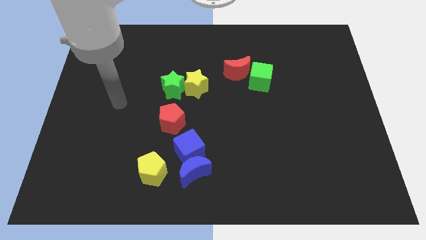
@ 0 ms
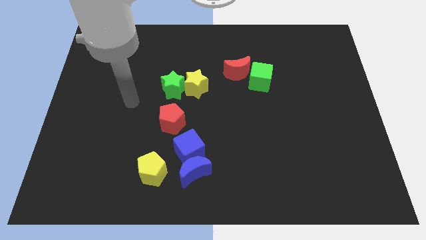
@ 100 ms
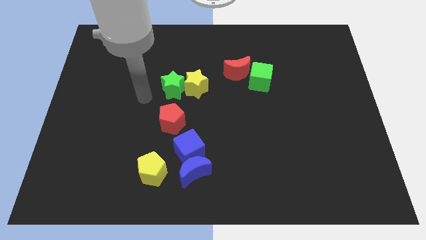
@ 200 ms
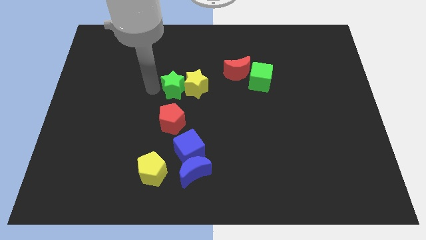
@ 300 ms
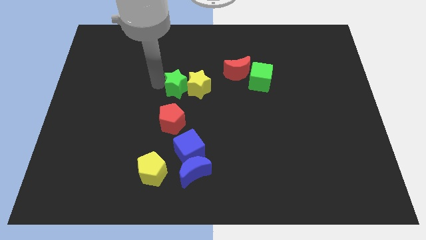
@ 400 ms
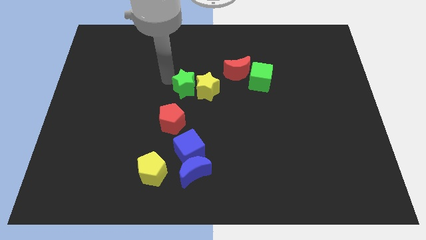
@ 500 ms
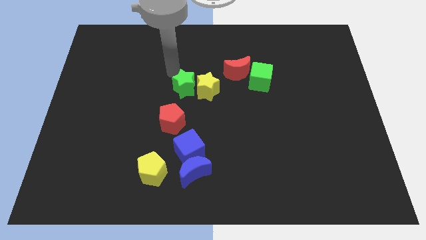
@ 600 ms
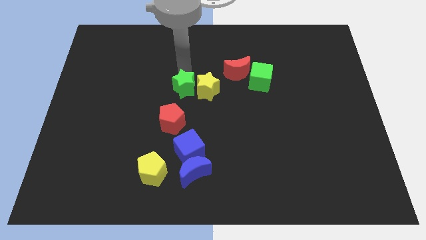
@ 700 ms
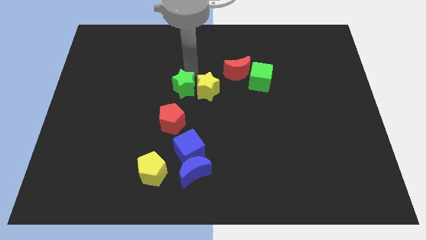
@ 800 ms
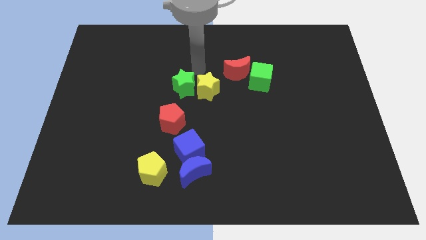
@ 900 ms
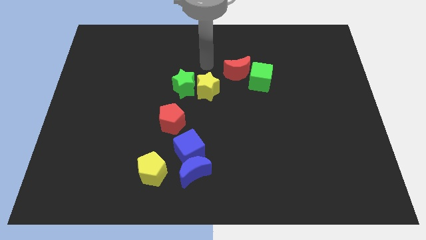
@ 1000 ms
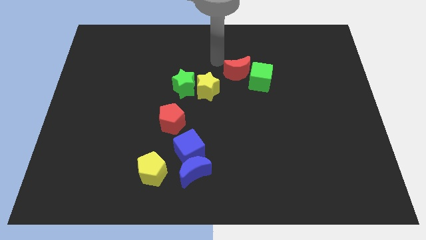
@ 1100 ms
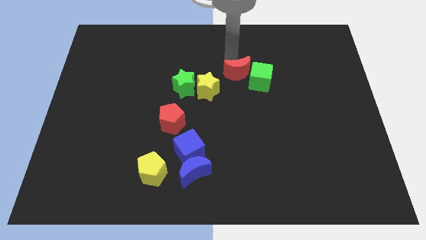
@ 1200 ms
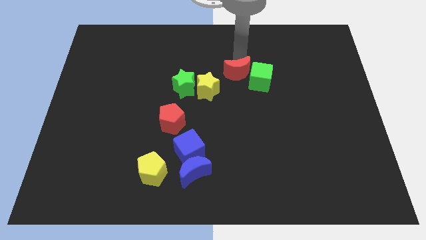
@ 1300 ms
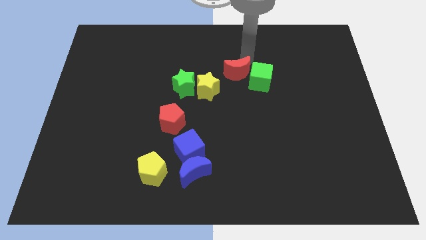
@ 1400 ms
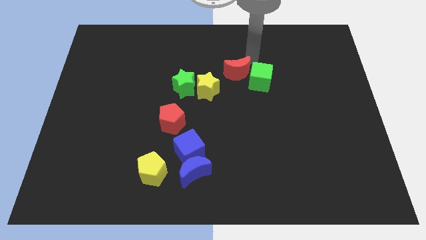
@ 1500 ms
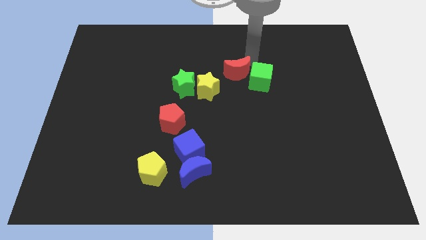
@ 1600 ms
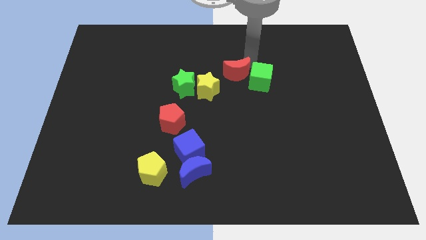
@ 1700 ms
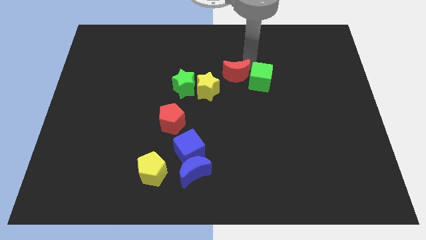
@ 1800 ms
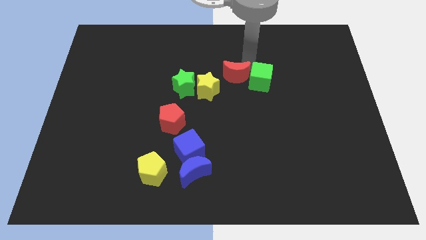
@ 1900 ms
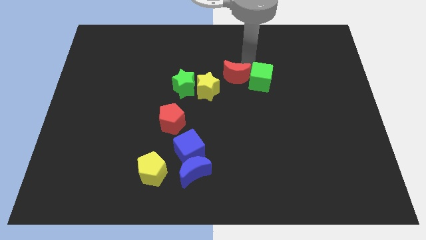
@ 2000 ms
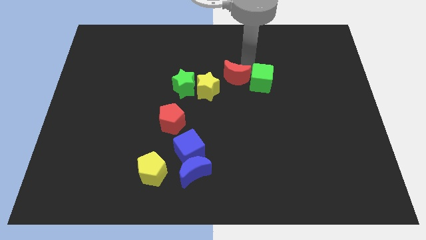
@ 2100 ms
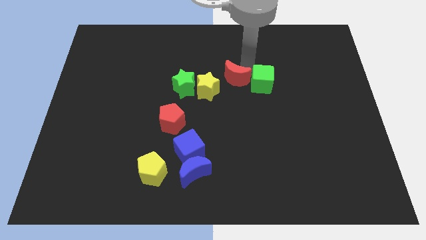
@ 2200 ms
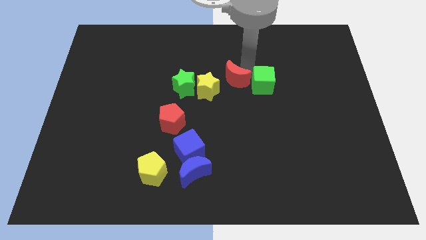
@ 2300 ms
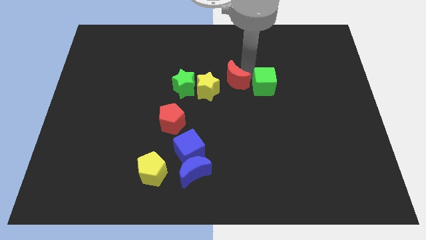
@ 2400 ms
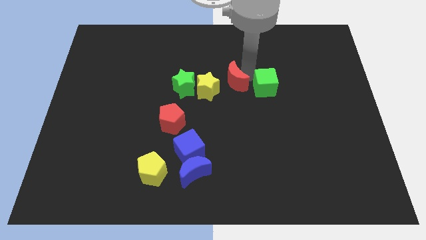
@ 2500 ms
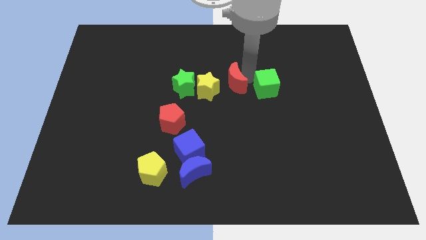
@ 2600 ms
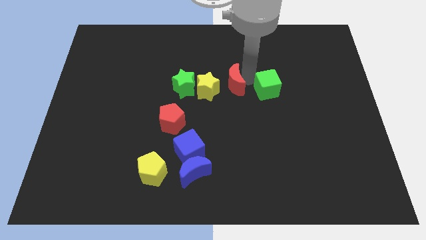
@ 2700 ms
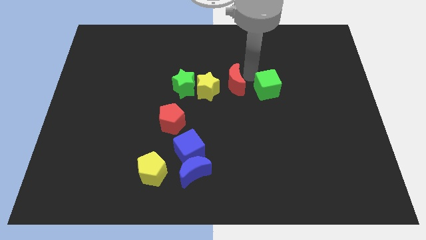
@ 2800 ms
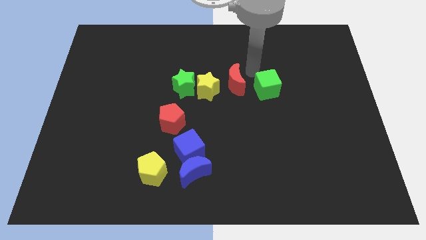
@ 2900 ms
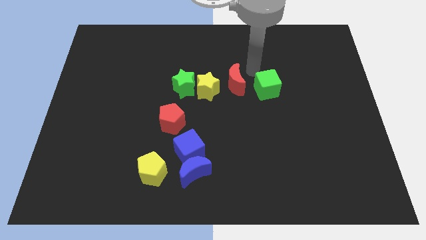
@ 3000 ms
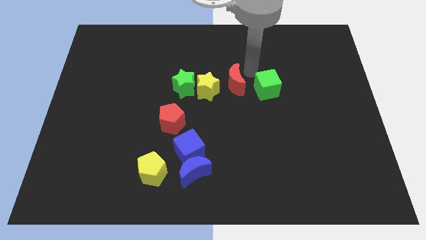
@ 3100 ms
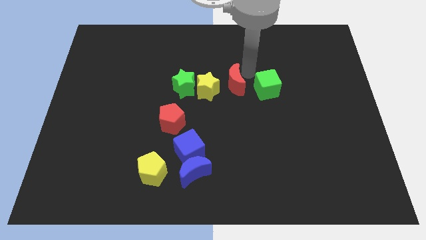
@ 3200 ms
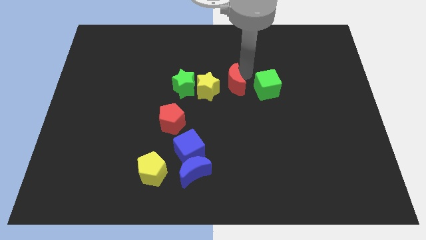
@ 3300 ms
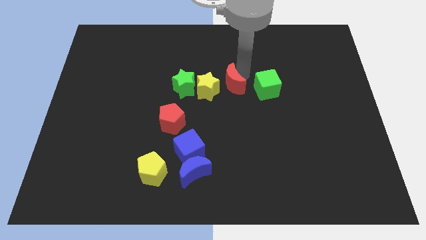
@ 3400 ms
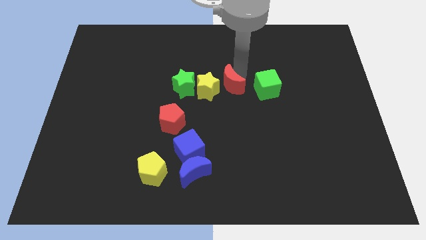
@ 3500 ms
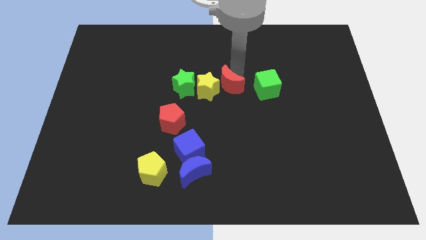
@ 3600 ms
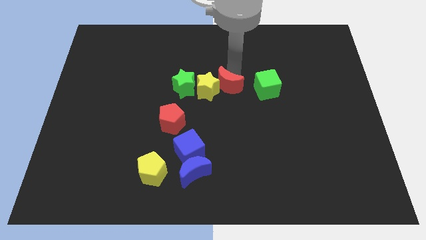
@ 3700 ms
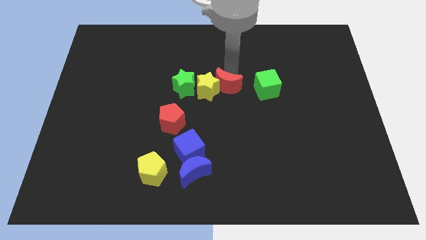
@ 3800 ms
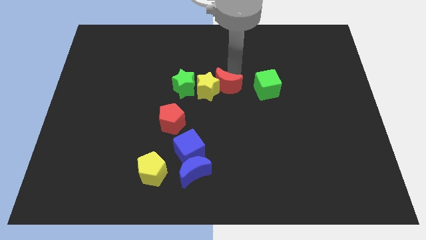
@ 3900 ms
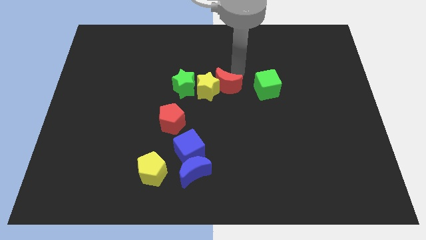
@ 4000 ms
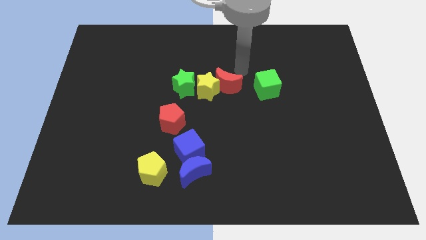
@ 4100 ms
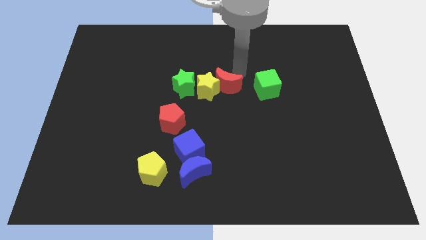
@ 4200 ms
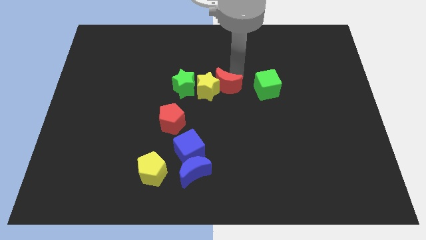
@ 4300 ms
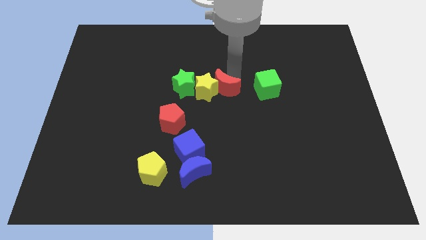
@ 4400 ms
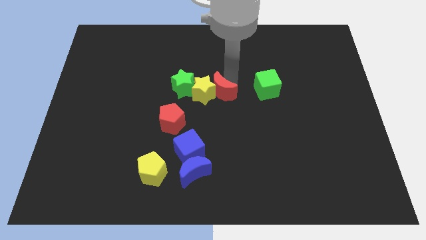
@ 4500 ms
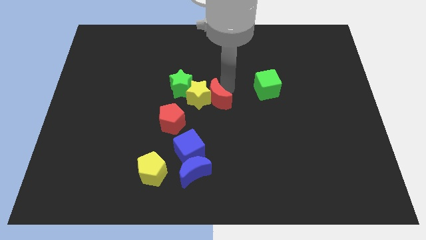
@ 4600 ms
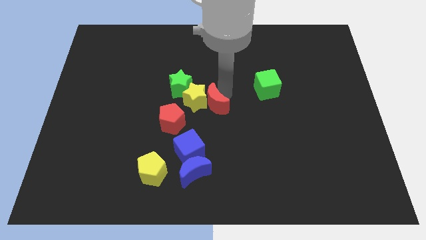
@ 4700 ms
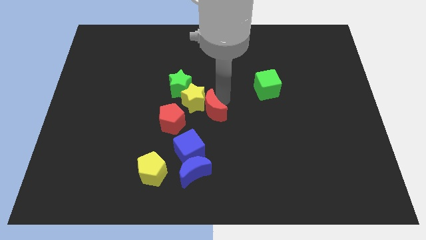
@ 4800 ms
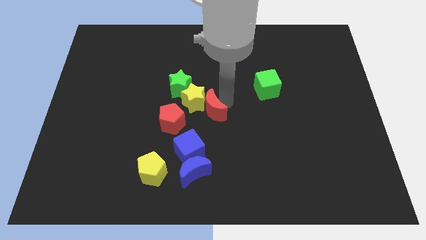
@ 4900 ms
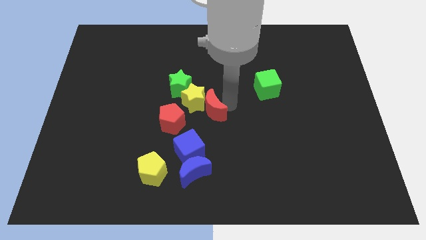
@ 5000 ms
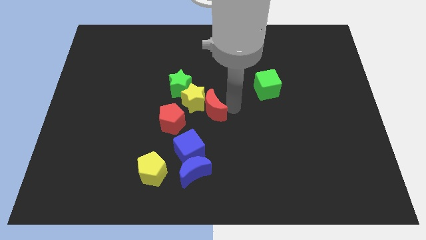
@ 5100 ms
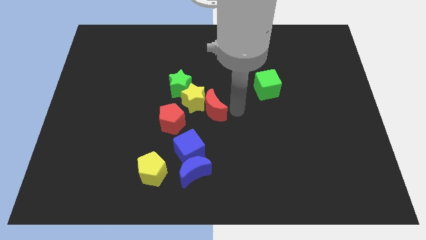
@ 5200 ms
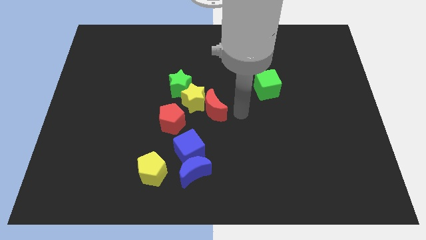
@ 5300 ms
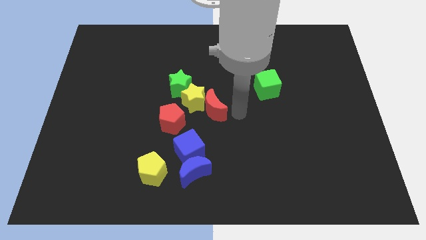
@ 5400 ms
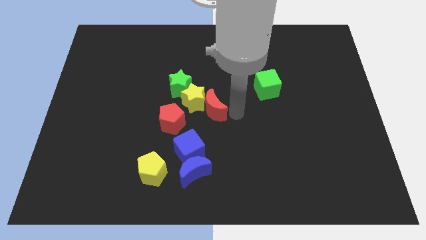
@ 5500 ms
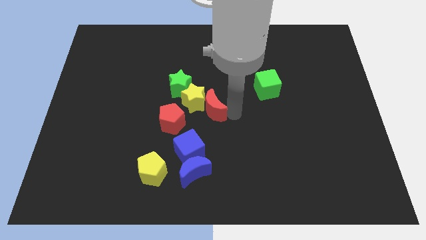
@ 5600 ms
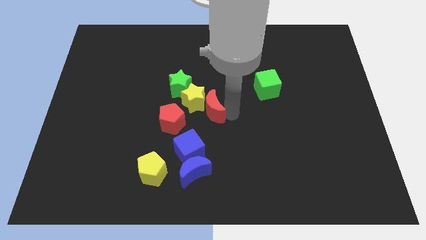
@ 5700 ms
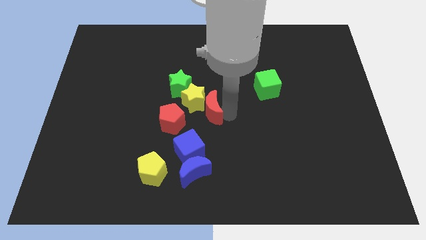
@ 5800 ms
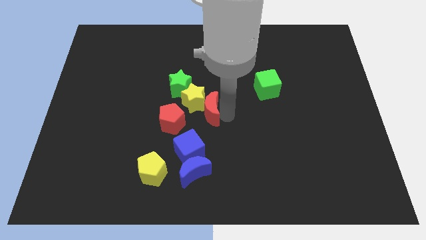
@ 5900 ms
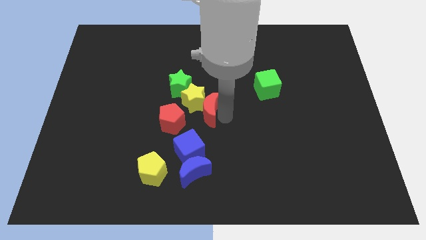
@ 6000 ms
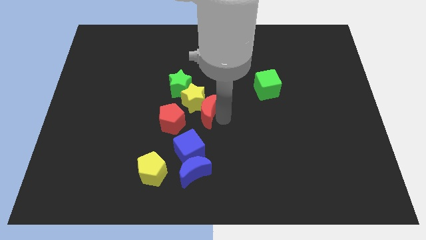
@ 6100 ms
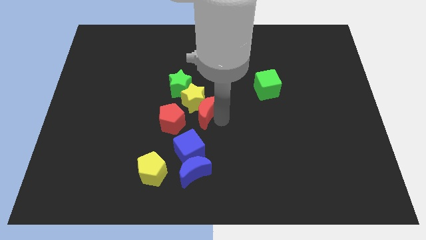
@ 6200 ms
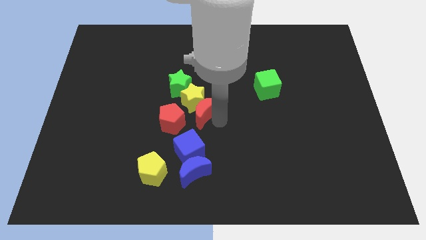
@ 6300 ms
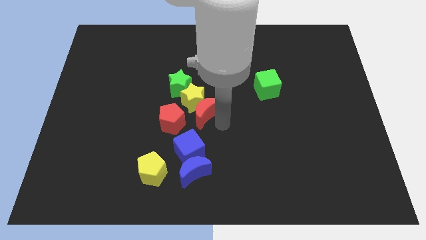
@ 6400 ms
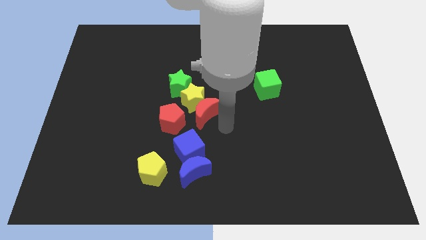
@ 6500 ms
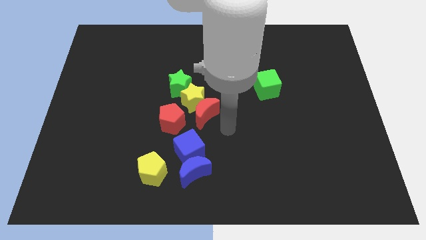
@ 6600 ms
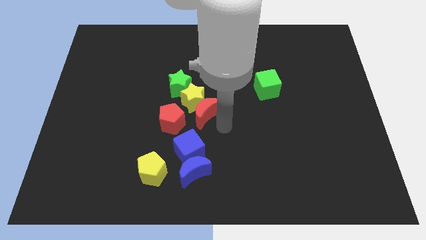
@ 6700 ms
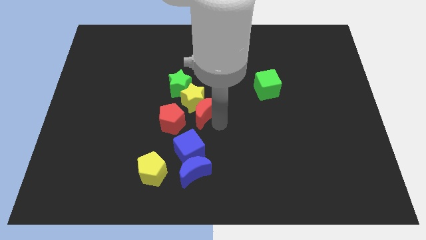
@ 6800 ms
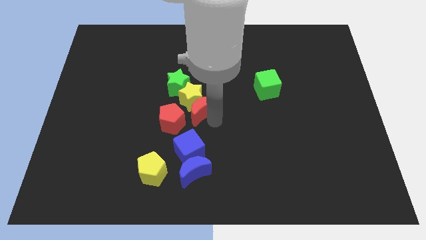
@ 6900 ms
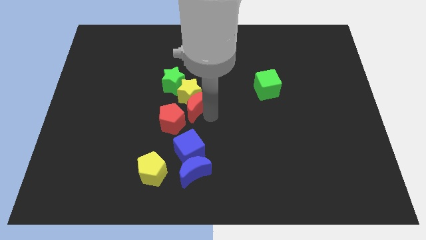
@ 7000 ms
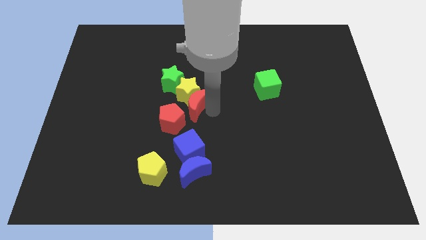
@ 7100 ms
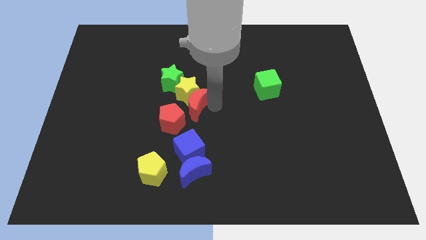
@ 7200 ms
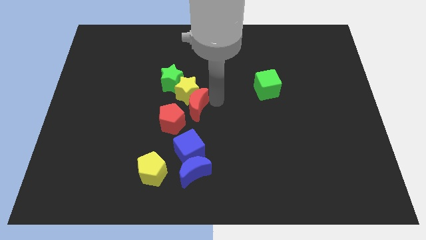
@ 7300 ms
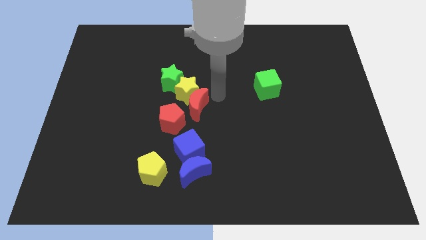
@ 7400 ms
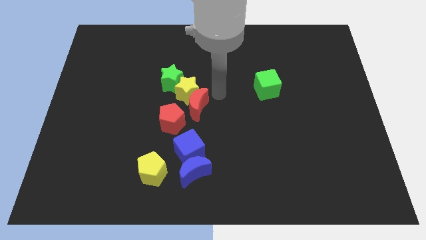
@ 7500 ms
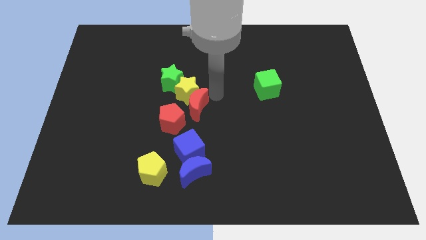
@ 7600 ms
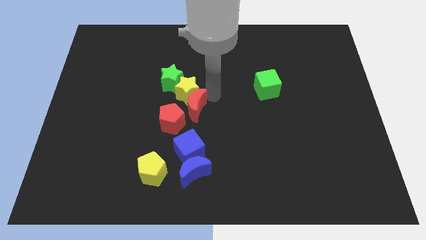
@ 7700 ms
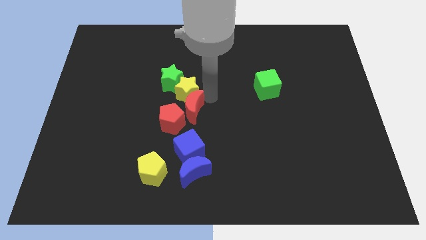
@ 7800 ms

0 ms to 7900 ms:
move the red moon towards the red pentagon
